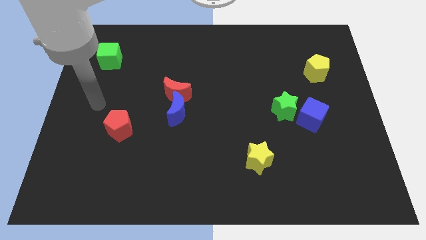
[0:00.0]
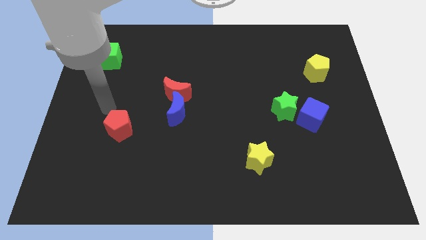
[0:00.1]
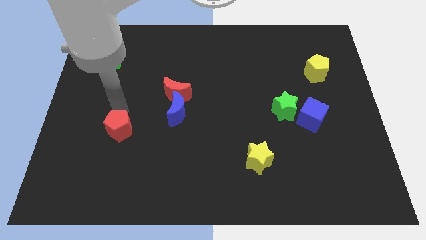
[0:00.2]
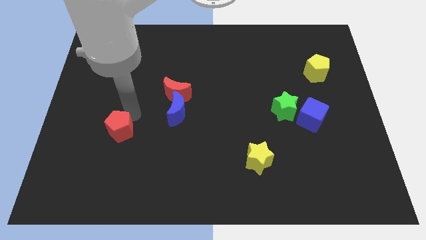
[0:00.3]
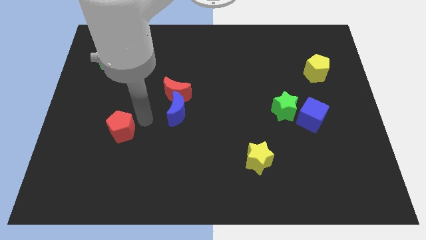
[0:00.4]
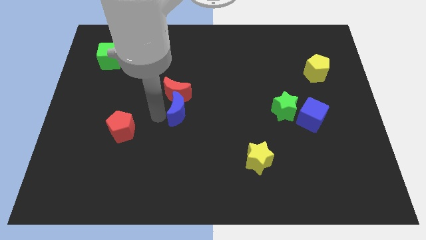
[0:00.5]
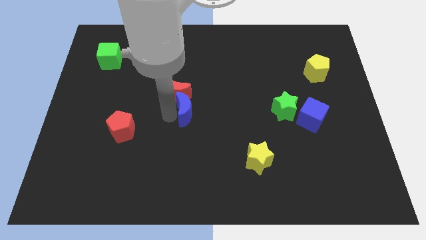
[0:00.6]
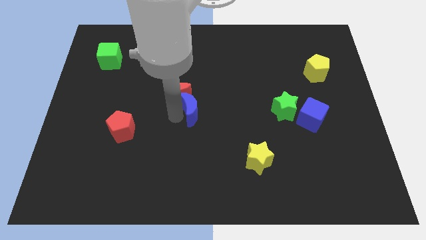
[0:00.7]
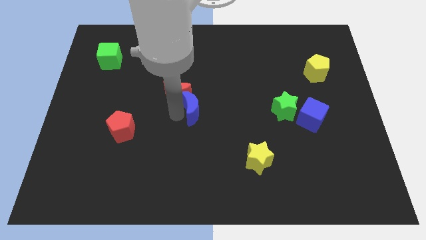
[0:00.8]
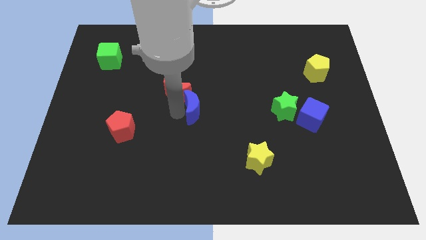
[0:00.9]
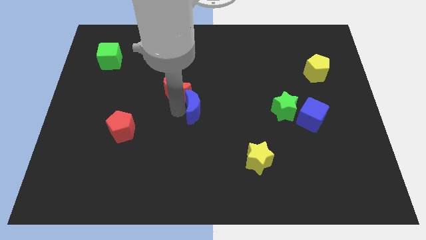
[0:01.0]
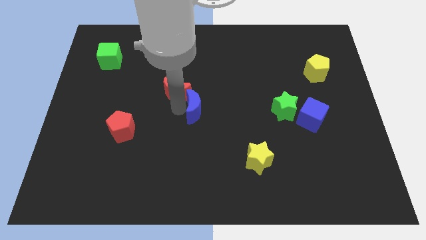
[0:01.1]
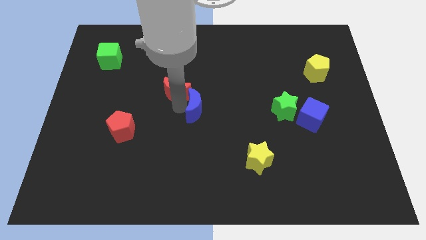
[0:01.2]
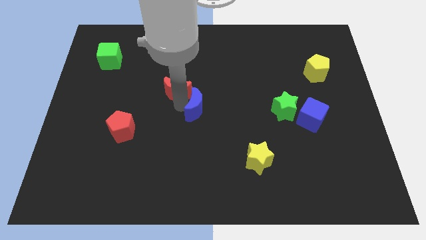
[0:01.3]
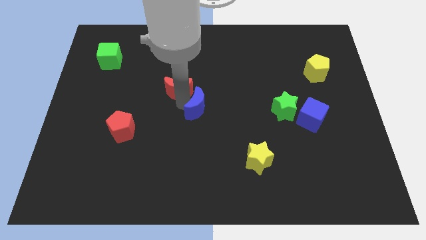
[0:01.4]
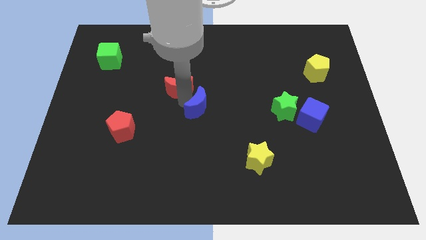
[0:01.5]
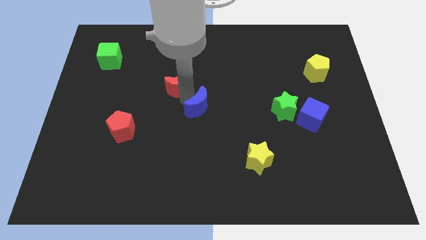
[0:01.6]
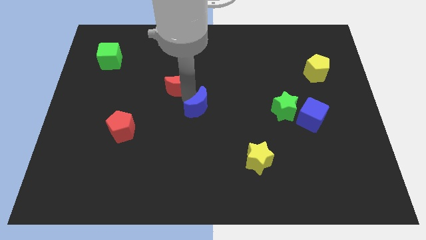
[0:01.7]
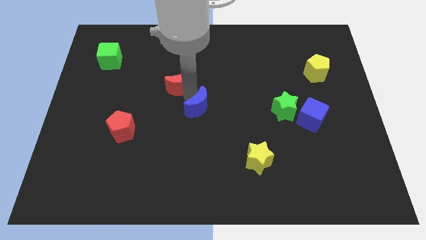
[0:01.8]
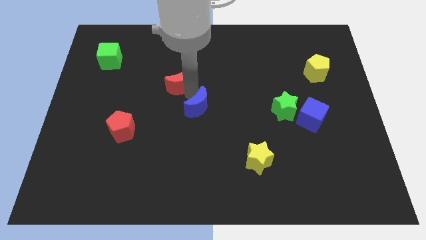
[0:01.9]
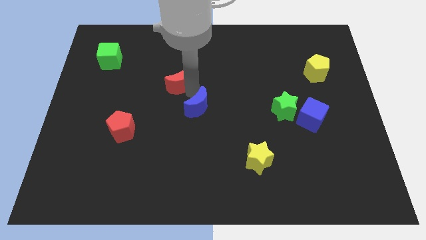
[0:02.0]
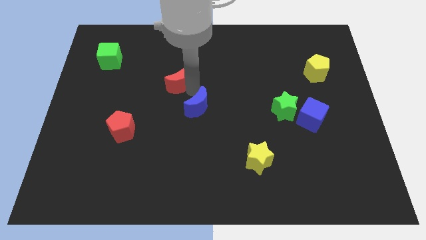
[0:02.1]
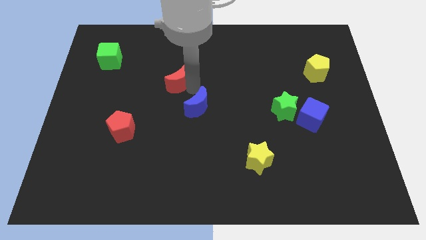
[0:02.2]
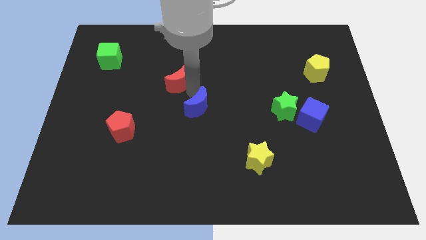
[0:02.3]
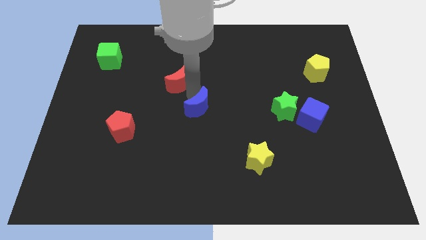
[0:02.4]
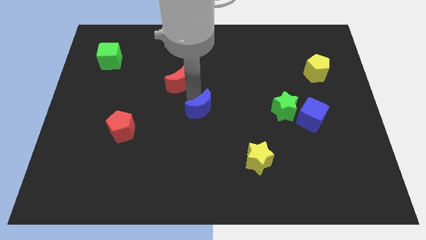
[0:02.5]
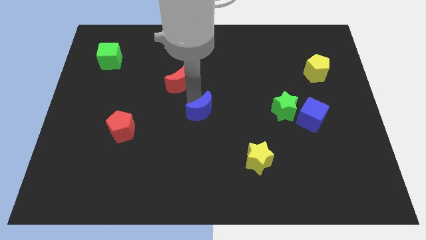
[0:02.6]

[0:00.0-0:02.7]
move the red moon away from the blue moon

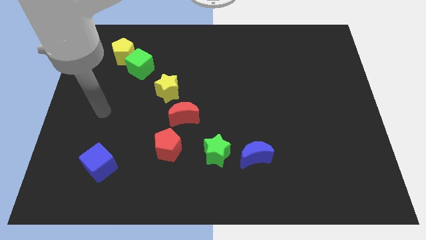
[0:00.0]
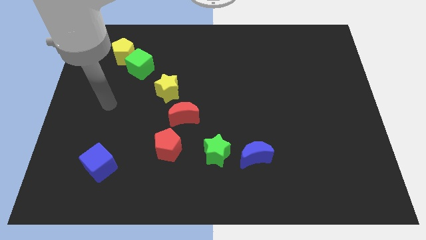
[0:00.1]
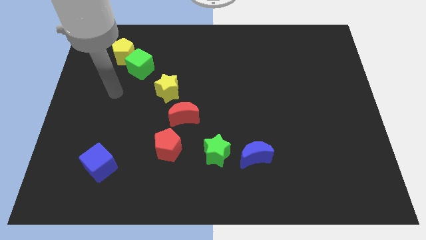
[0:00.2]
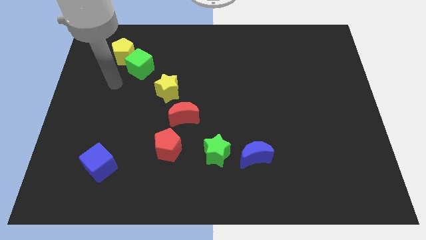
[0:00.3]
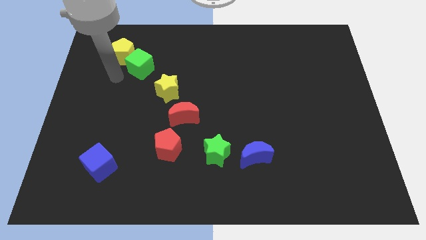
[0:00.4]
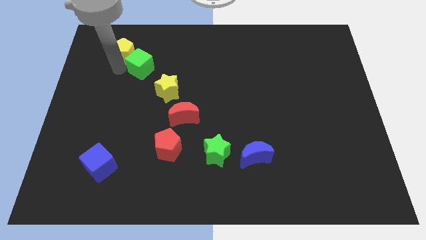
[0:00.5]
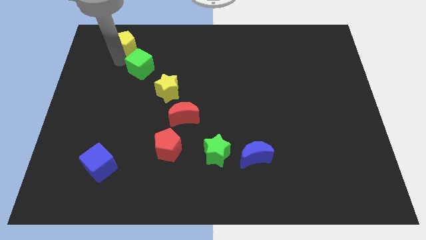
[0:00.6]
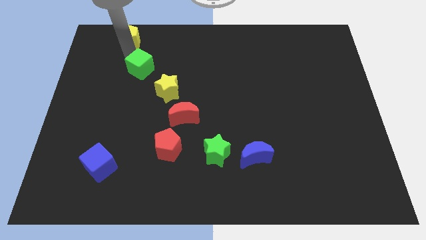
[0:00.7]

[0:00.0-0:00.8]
move the green cube away from the yellow pentagon

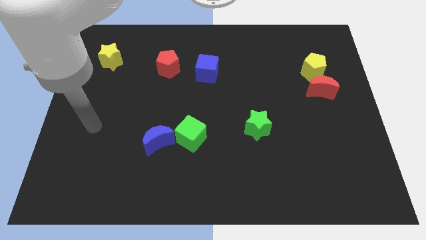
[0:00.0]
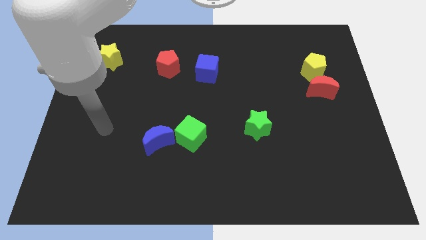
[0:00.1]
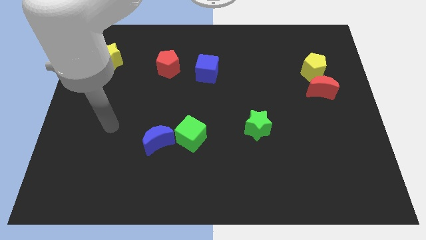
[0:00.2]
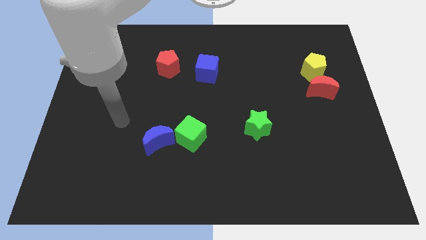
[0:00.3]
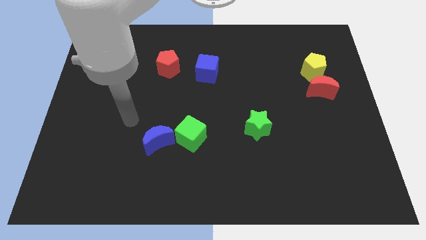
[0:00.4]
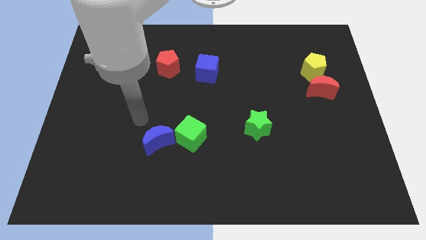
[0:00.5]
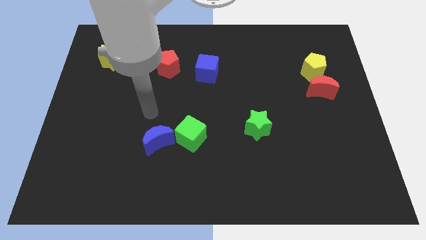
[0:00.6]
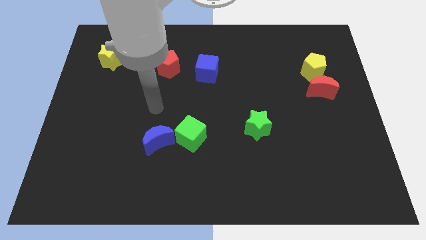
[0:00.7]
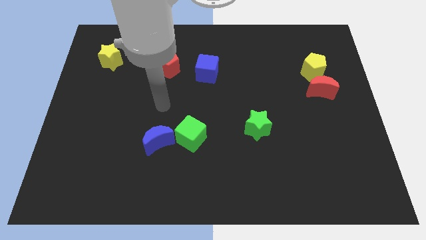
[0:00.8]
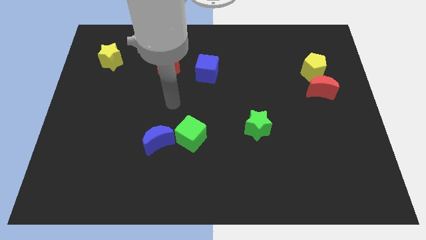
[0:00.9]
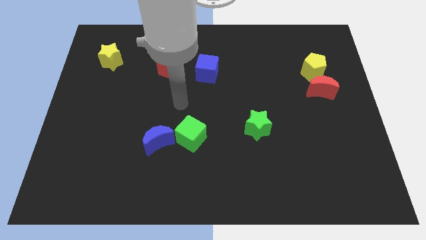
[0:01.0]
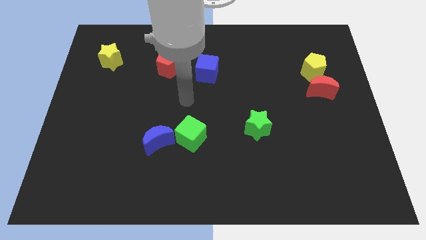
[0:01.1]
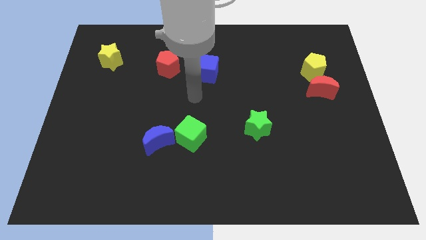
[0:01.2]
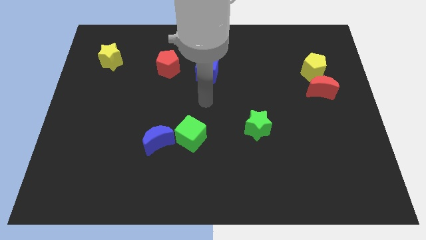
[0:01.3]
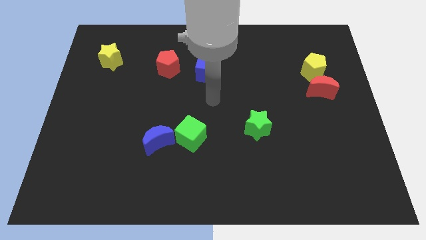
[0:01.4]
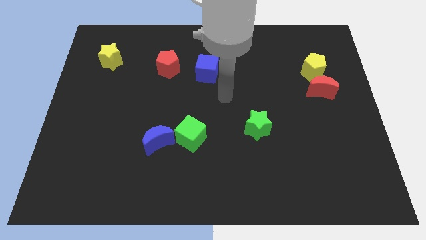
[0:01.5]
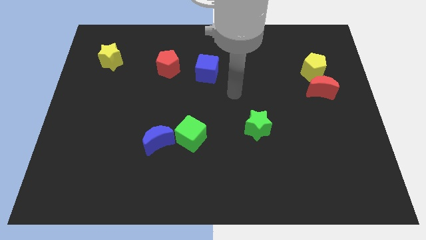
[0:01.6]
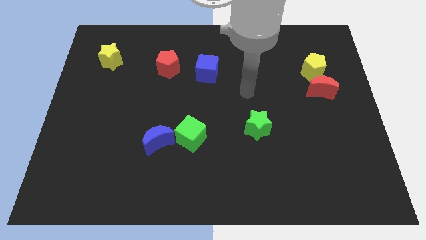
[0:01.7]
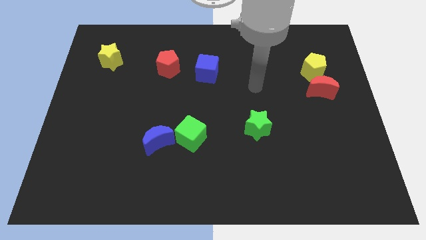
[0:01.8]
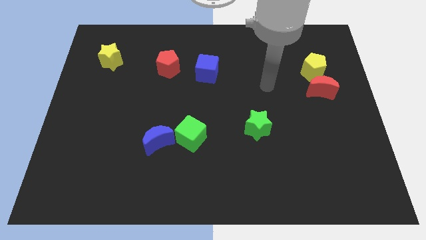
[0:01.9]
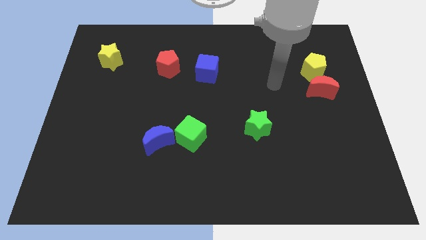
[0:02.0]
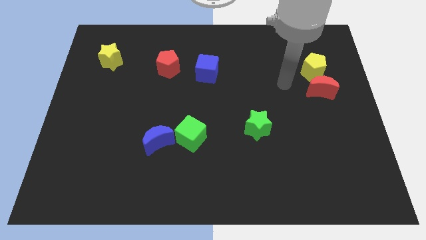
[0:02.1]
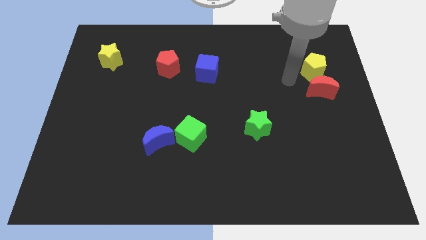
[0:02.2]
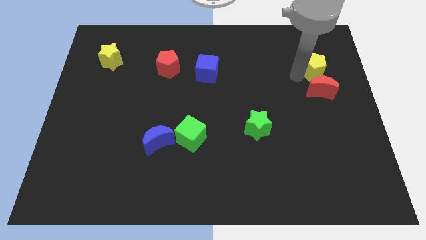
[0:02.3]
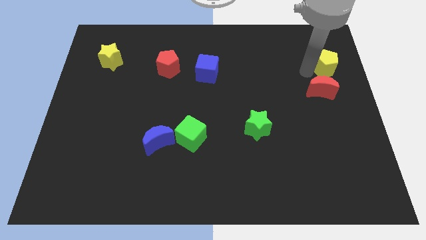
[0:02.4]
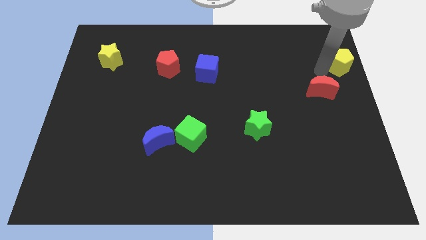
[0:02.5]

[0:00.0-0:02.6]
separate the red moon from the yellow pentagon

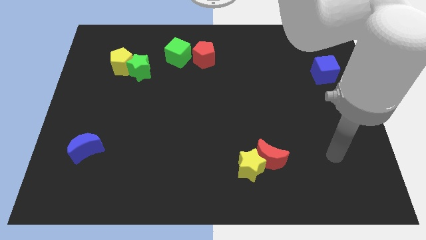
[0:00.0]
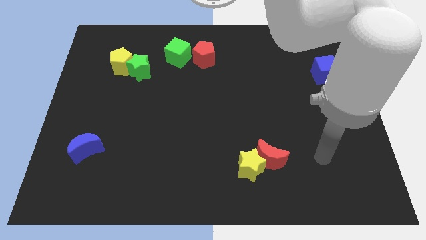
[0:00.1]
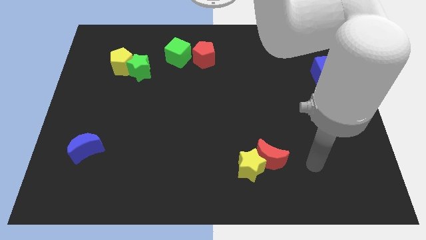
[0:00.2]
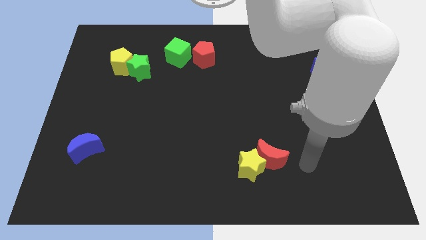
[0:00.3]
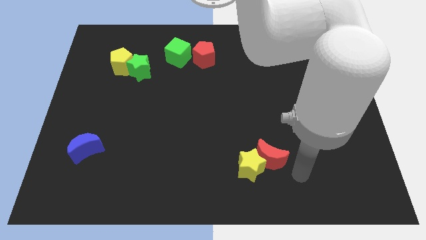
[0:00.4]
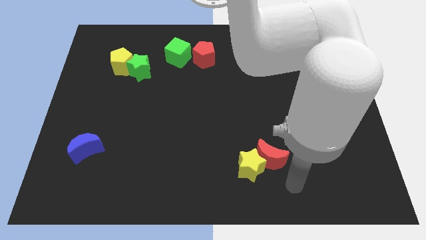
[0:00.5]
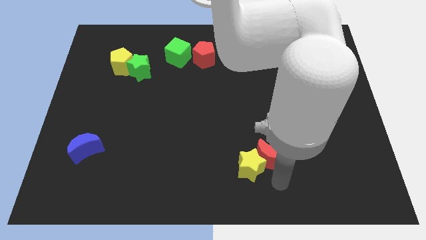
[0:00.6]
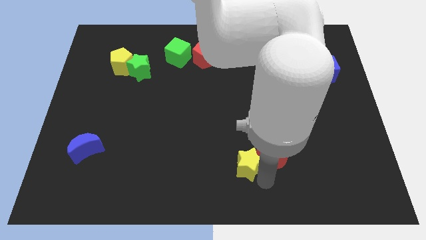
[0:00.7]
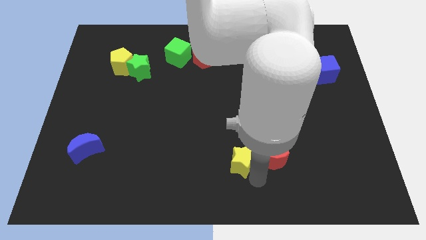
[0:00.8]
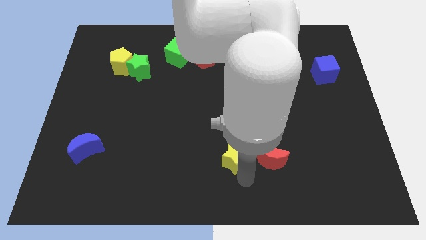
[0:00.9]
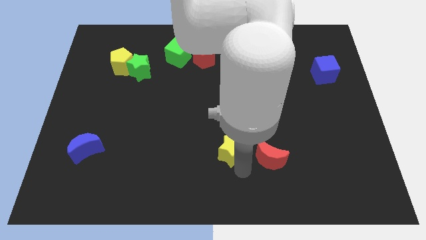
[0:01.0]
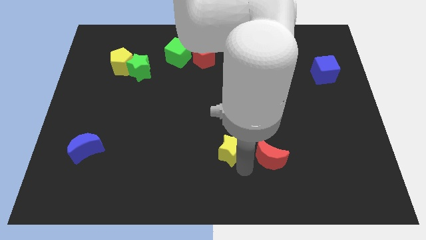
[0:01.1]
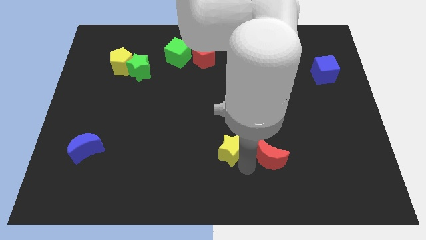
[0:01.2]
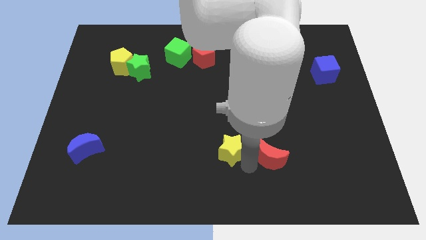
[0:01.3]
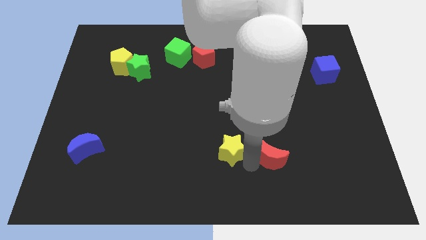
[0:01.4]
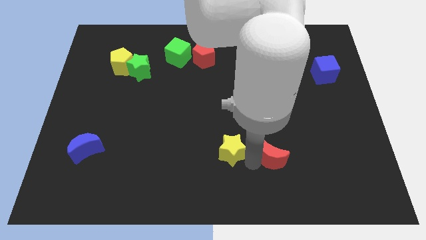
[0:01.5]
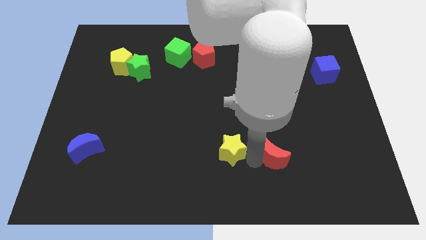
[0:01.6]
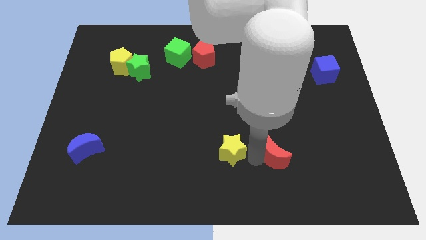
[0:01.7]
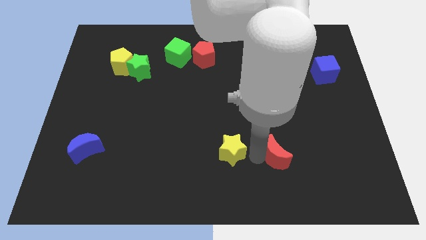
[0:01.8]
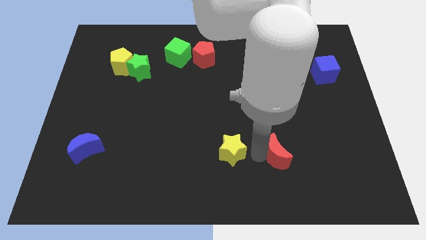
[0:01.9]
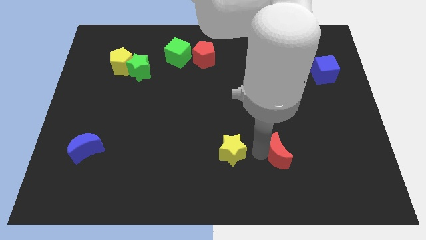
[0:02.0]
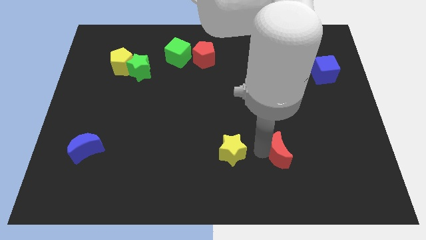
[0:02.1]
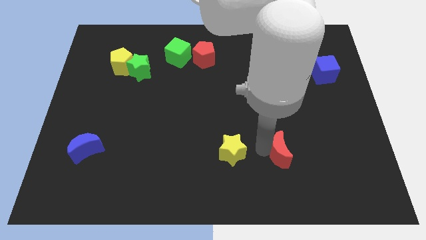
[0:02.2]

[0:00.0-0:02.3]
pull the red moon apart from the yellow star

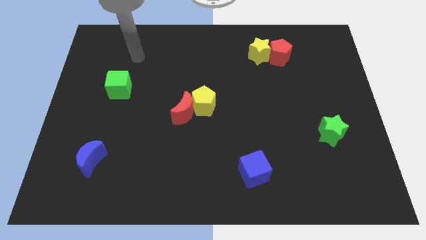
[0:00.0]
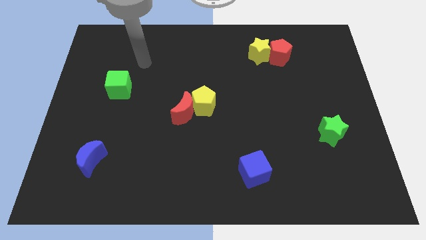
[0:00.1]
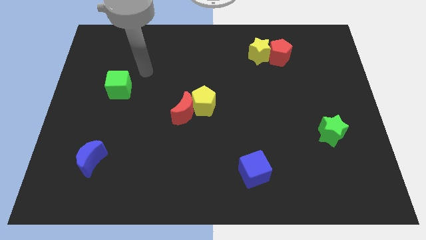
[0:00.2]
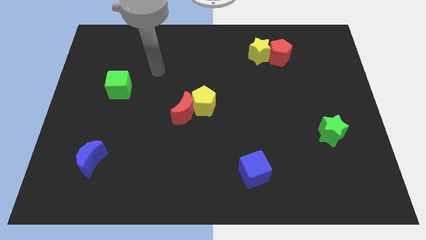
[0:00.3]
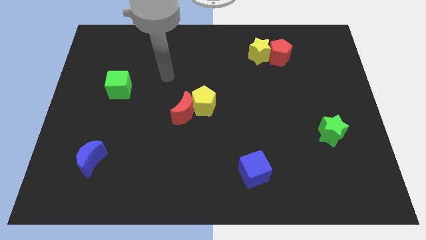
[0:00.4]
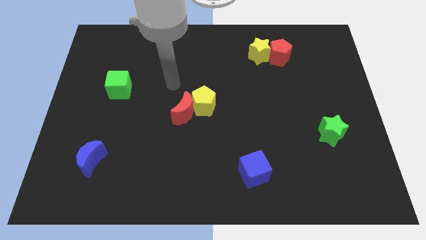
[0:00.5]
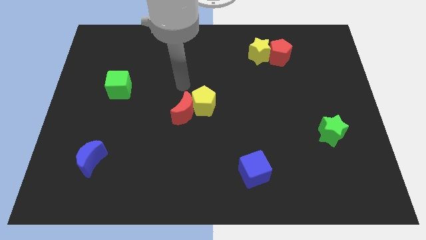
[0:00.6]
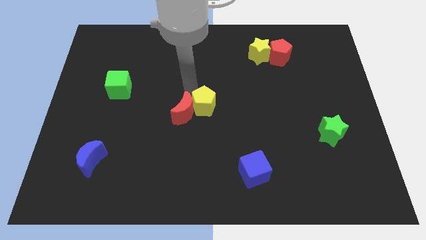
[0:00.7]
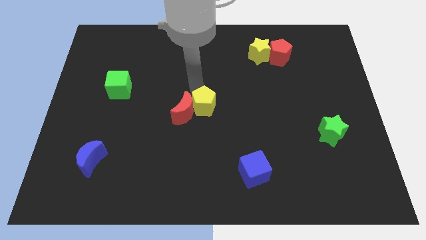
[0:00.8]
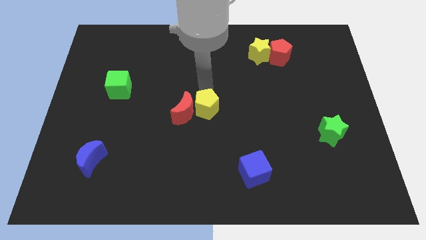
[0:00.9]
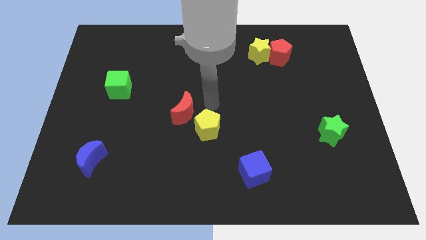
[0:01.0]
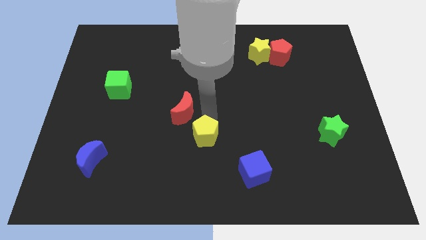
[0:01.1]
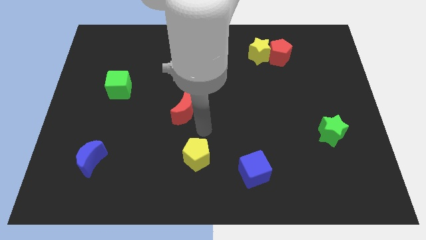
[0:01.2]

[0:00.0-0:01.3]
pull the red moon apart from the yellow pentagon
